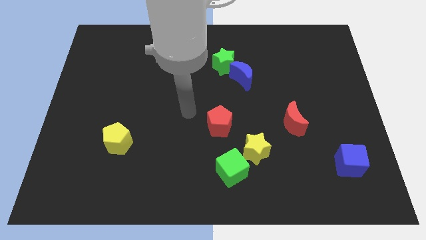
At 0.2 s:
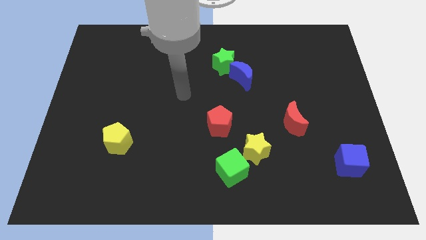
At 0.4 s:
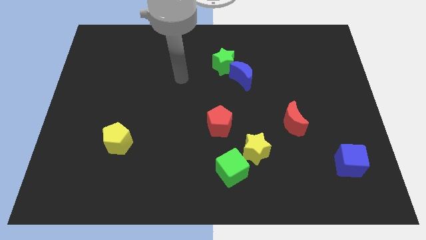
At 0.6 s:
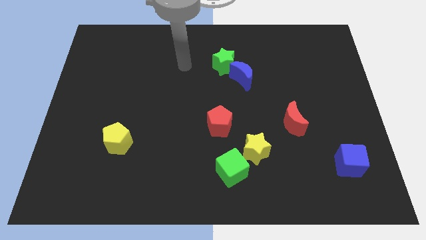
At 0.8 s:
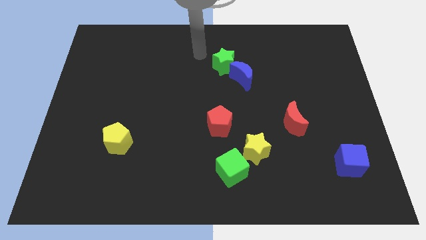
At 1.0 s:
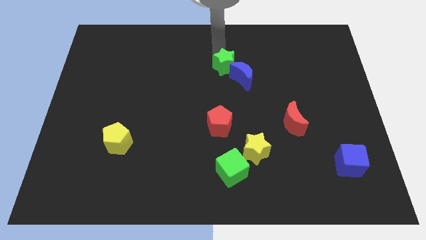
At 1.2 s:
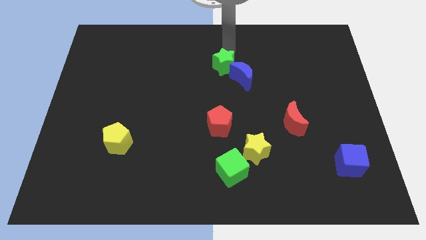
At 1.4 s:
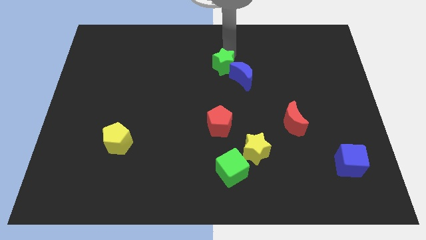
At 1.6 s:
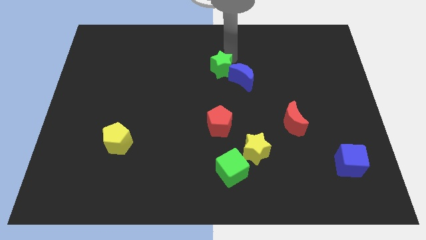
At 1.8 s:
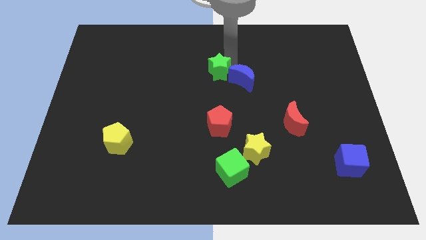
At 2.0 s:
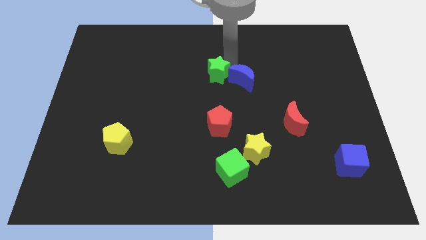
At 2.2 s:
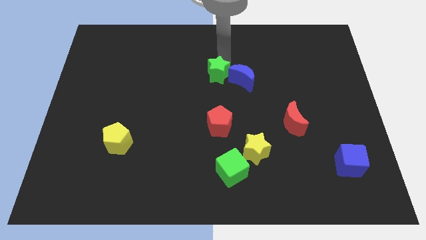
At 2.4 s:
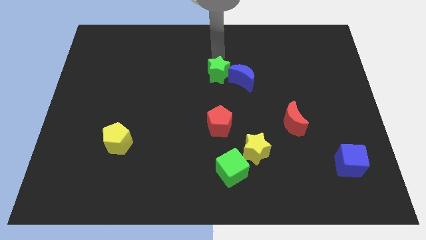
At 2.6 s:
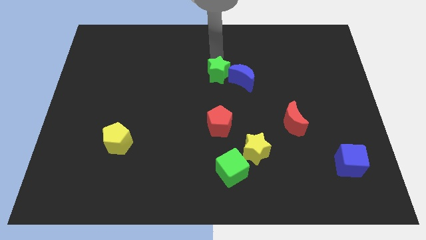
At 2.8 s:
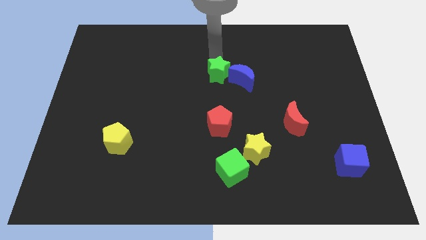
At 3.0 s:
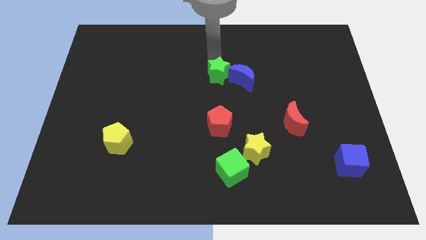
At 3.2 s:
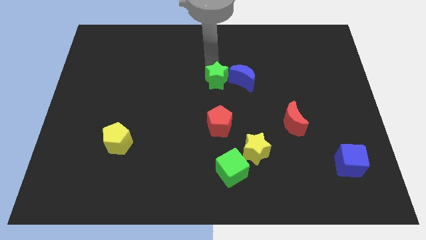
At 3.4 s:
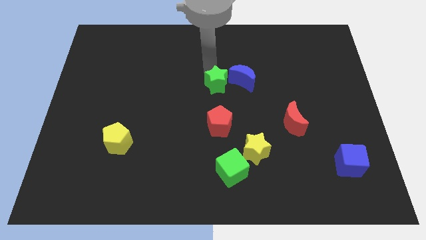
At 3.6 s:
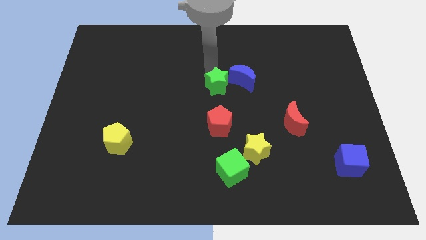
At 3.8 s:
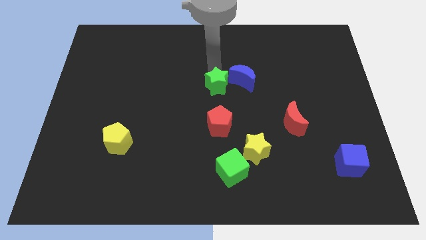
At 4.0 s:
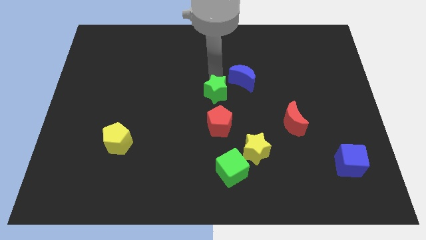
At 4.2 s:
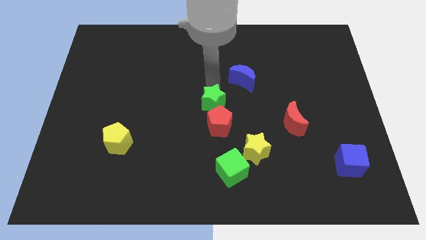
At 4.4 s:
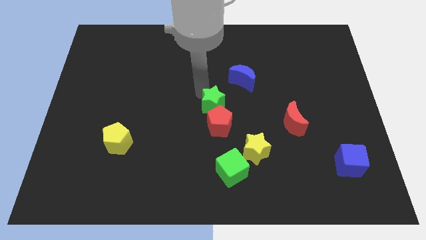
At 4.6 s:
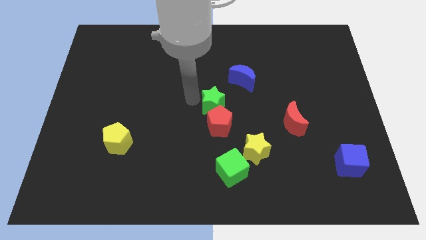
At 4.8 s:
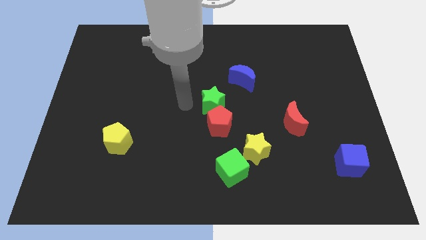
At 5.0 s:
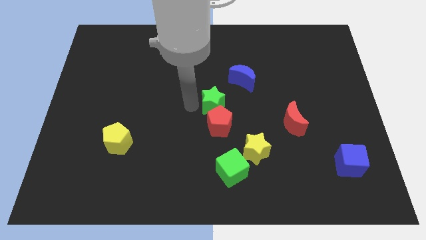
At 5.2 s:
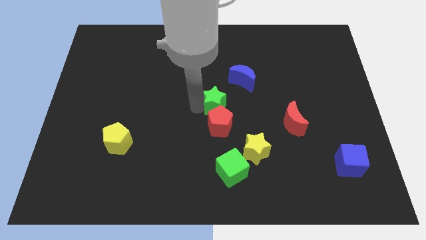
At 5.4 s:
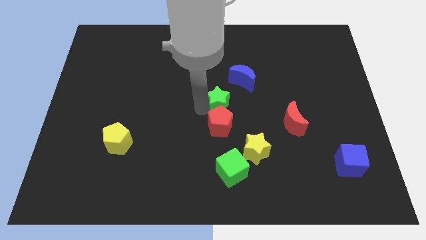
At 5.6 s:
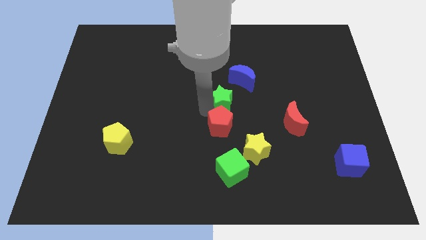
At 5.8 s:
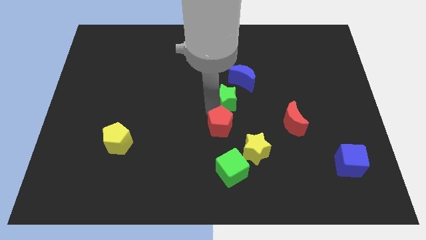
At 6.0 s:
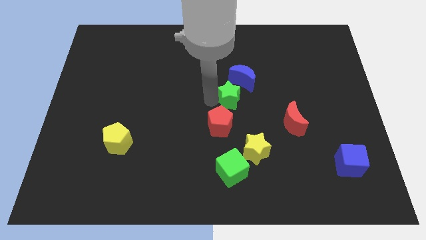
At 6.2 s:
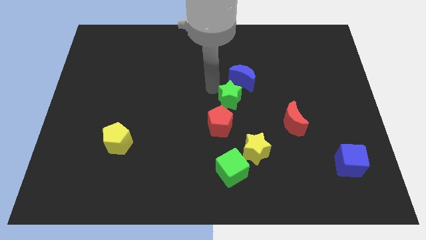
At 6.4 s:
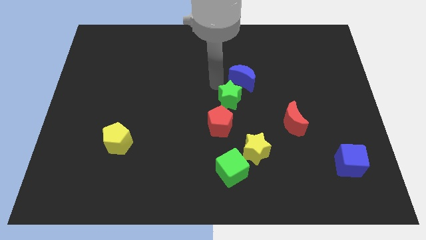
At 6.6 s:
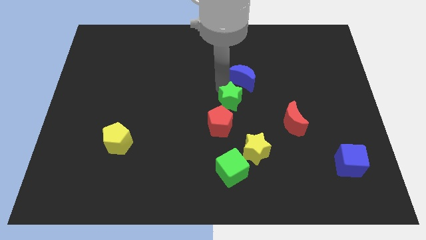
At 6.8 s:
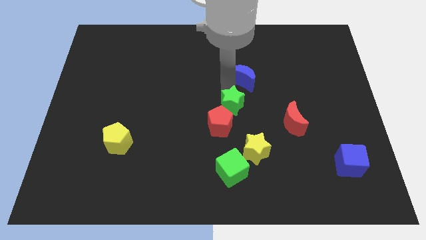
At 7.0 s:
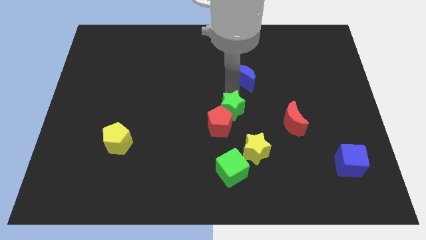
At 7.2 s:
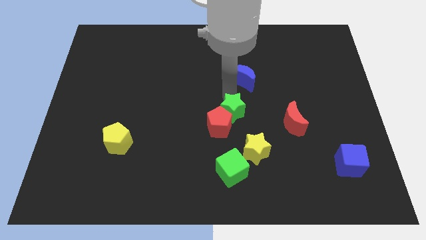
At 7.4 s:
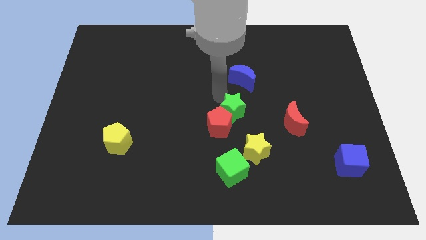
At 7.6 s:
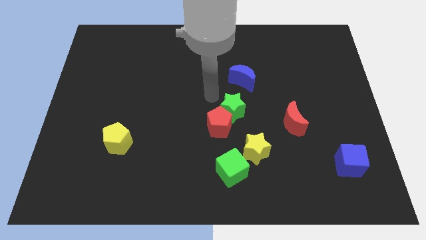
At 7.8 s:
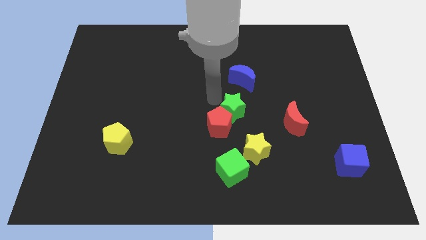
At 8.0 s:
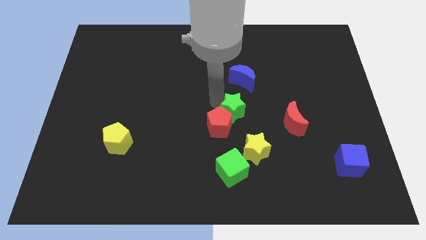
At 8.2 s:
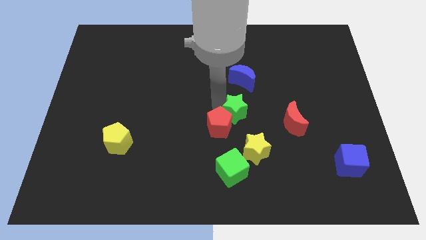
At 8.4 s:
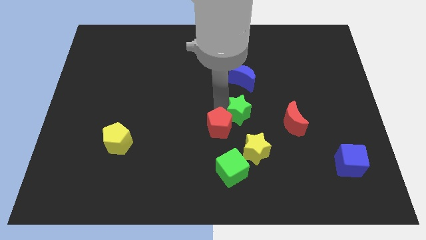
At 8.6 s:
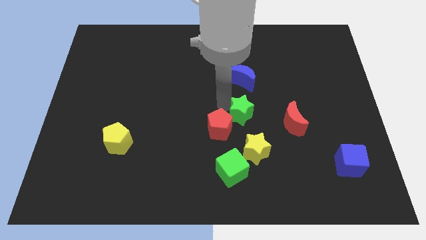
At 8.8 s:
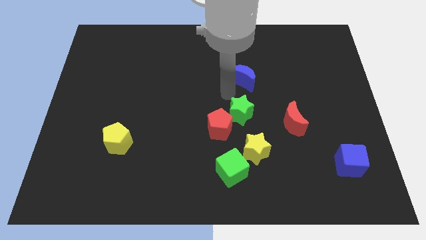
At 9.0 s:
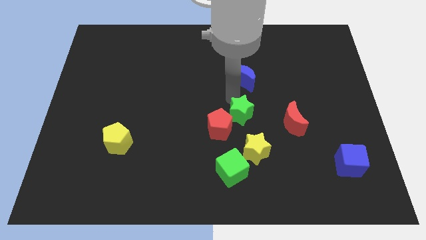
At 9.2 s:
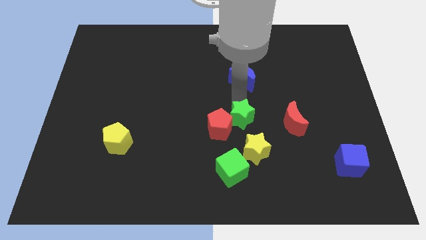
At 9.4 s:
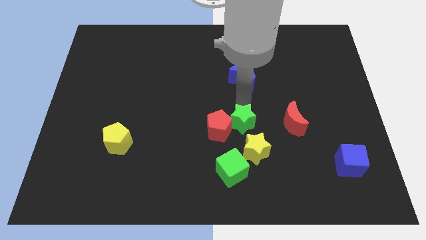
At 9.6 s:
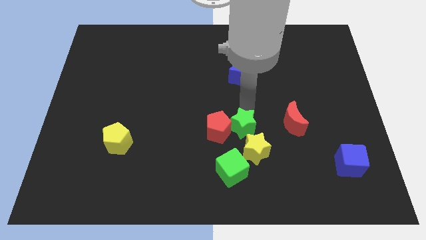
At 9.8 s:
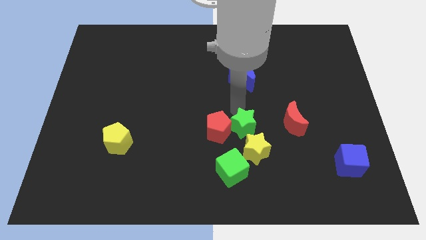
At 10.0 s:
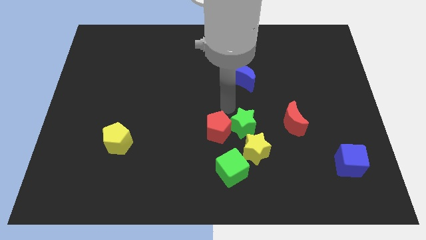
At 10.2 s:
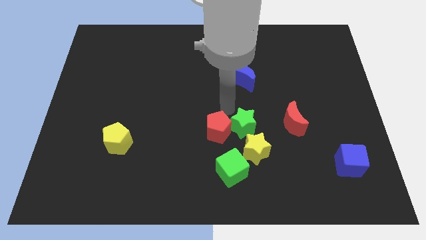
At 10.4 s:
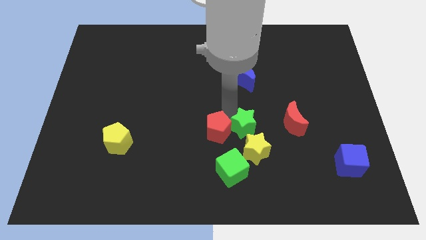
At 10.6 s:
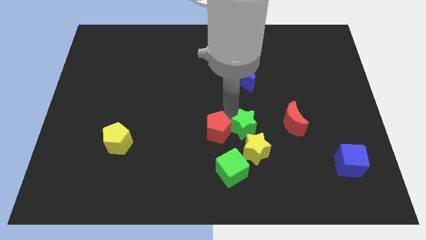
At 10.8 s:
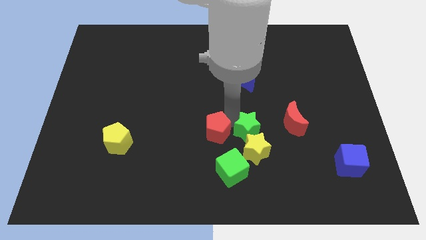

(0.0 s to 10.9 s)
slide the green star next to the yellow star

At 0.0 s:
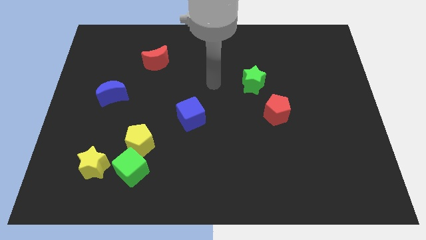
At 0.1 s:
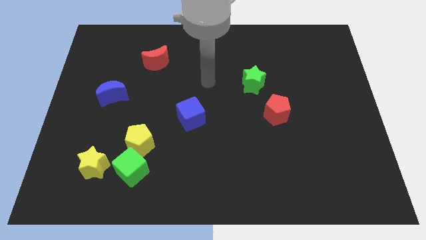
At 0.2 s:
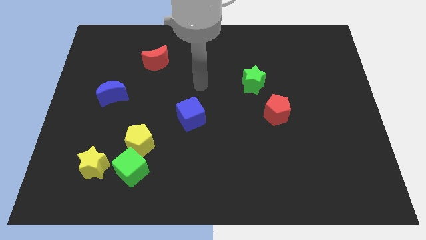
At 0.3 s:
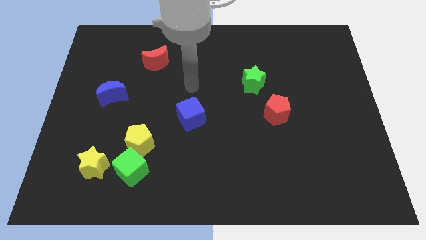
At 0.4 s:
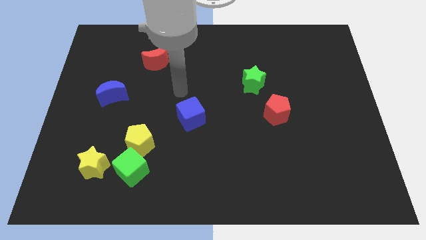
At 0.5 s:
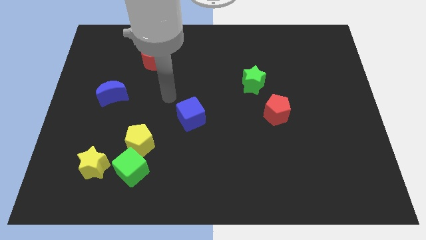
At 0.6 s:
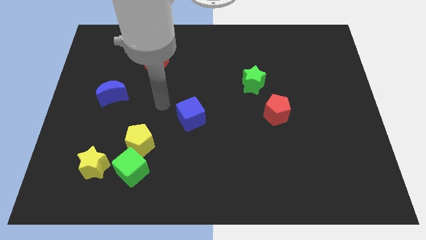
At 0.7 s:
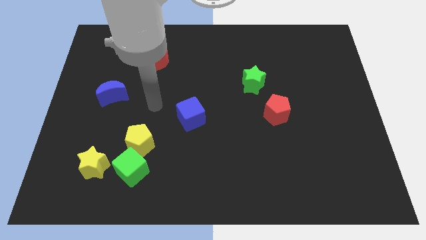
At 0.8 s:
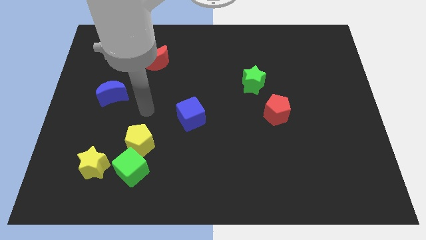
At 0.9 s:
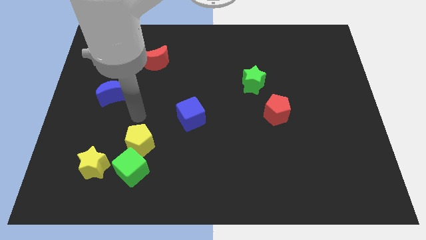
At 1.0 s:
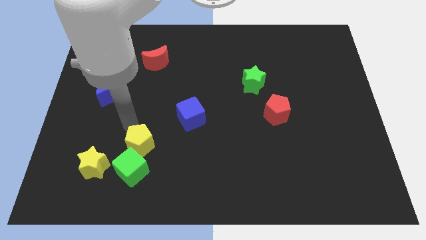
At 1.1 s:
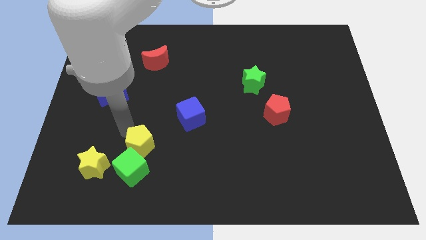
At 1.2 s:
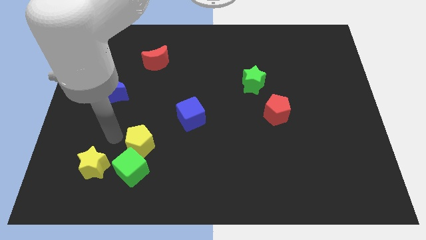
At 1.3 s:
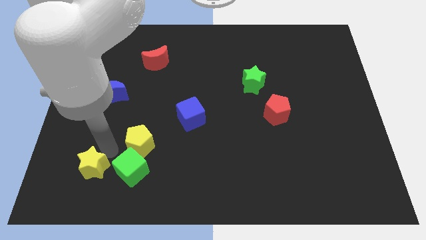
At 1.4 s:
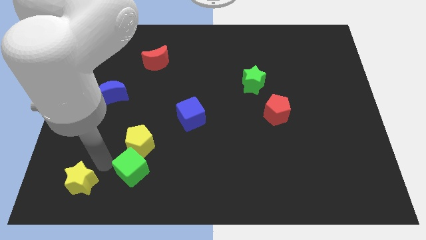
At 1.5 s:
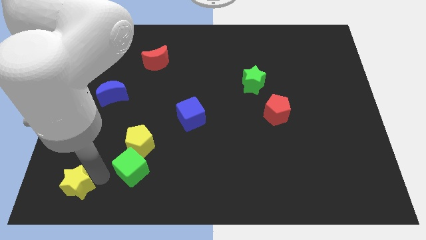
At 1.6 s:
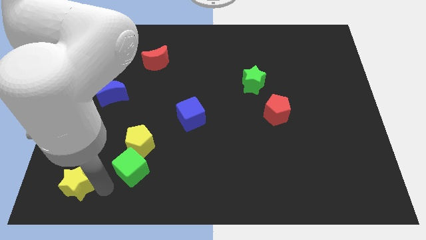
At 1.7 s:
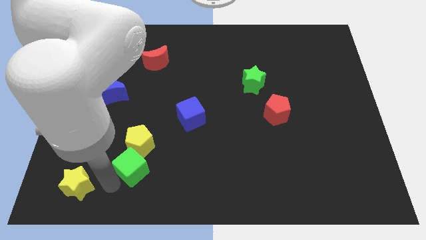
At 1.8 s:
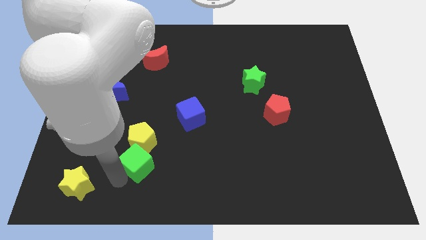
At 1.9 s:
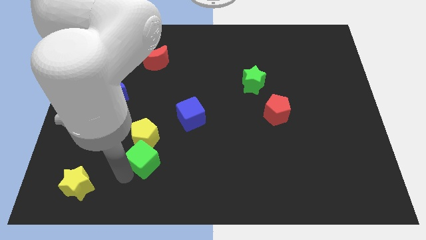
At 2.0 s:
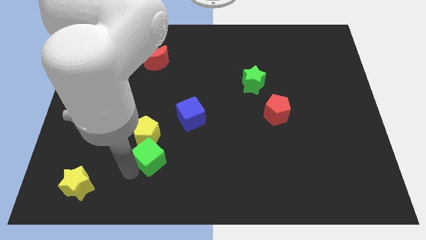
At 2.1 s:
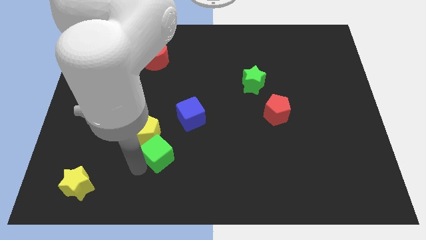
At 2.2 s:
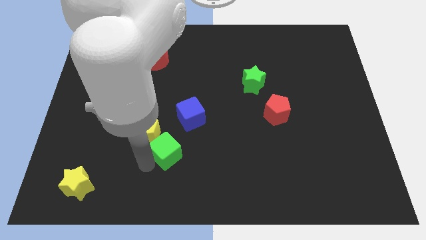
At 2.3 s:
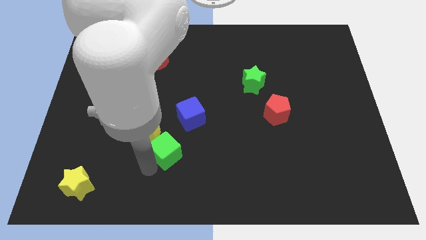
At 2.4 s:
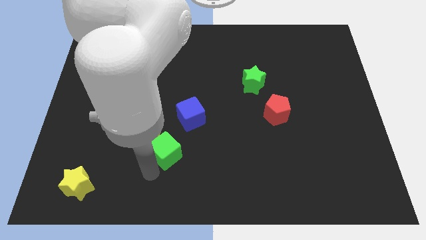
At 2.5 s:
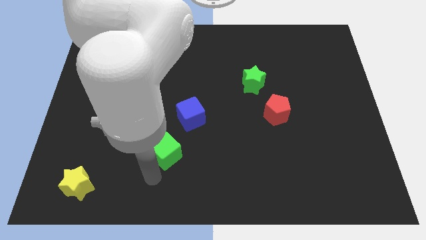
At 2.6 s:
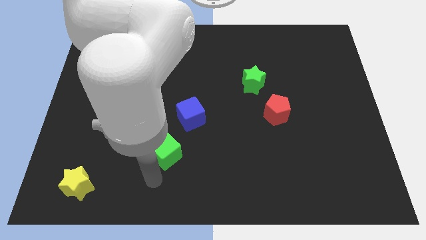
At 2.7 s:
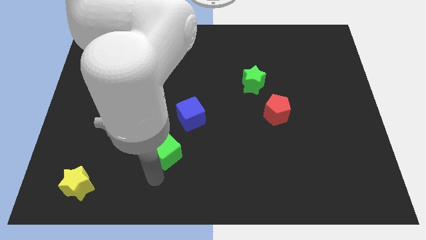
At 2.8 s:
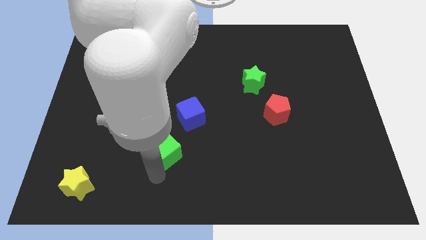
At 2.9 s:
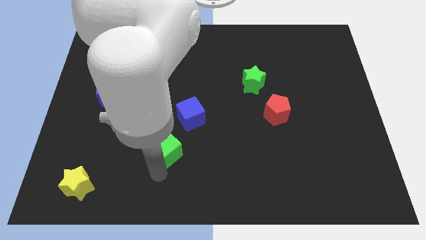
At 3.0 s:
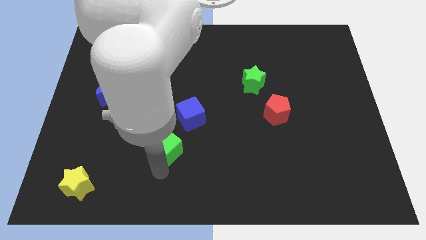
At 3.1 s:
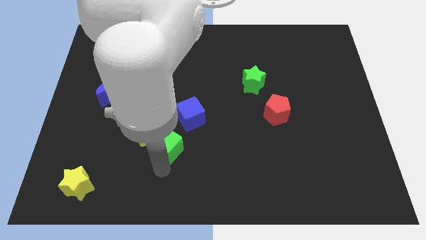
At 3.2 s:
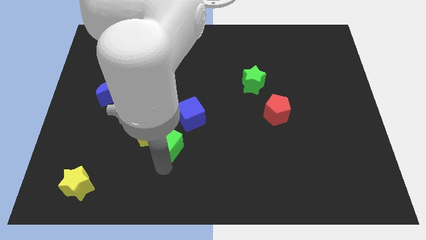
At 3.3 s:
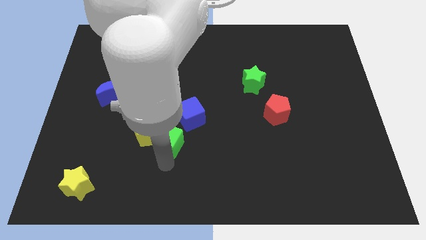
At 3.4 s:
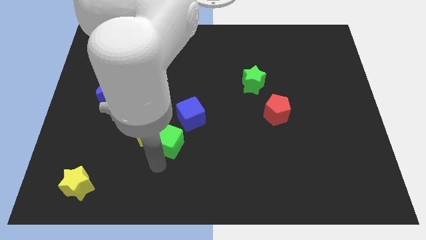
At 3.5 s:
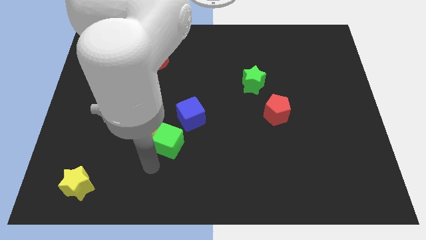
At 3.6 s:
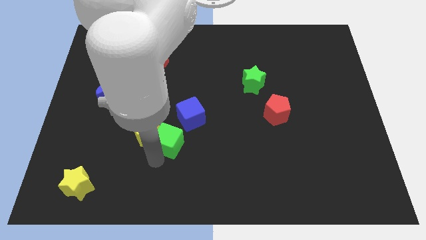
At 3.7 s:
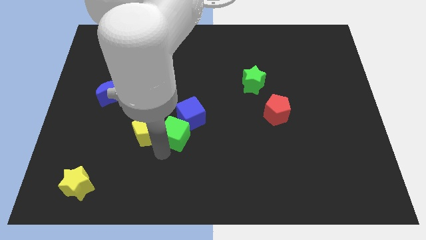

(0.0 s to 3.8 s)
slide the green cube to the blue cube
